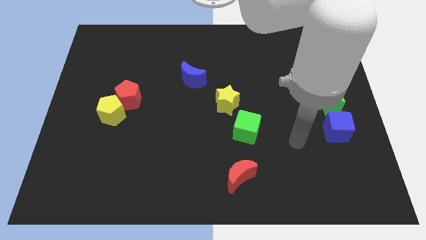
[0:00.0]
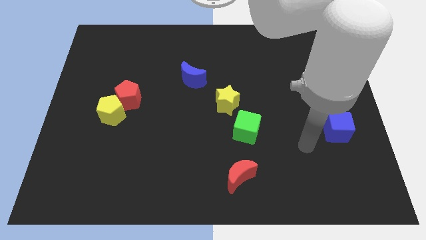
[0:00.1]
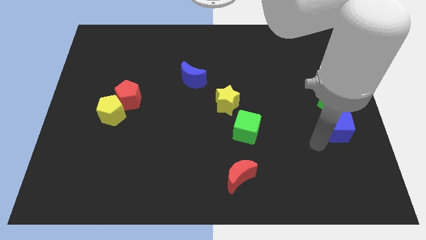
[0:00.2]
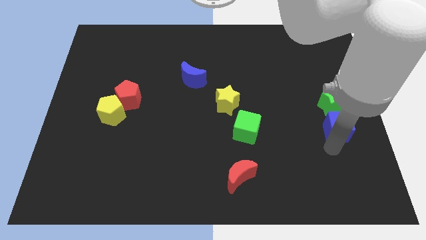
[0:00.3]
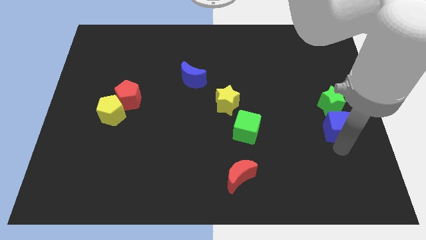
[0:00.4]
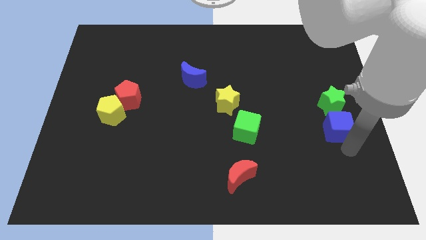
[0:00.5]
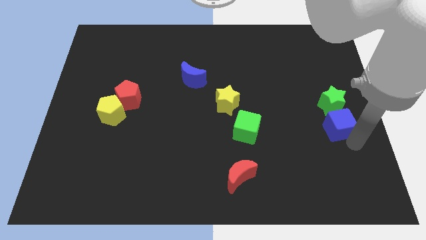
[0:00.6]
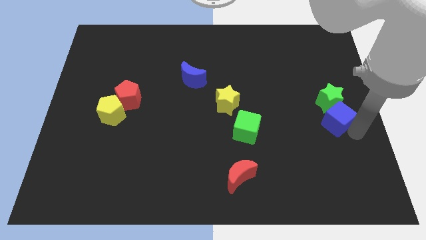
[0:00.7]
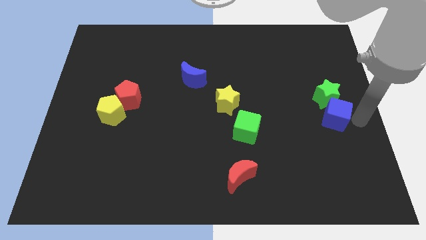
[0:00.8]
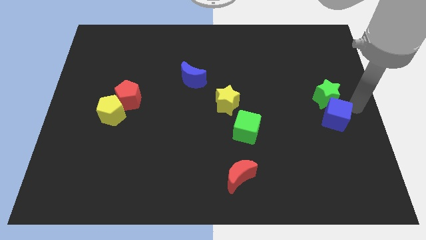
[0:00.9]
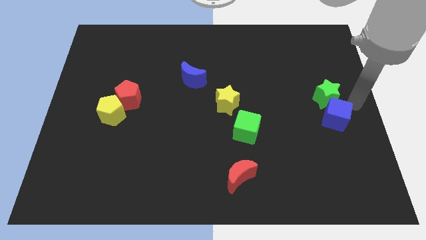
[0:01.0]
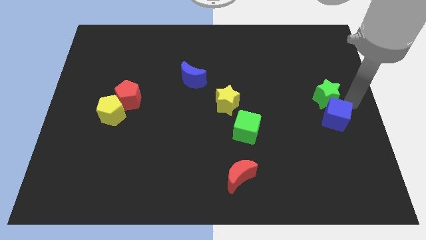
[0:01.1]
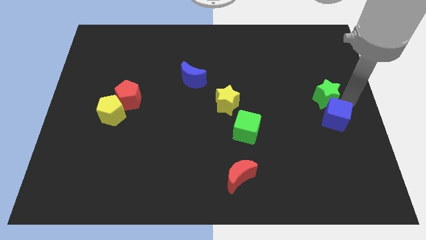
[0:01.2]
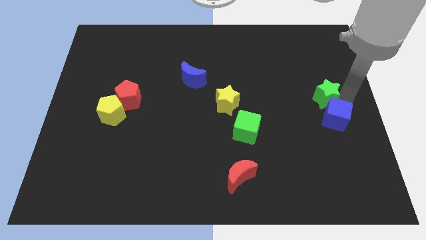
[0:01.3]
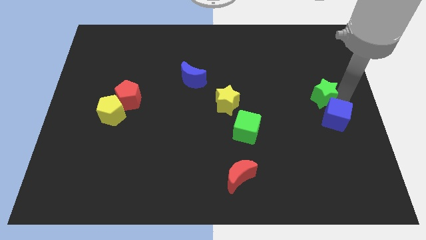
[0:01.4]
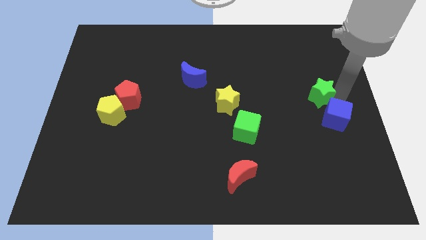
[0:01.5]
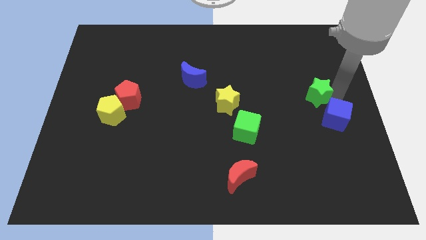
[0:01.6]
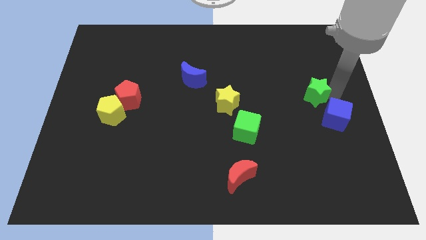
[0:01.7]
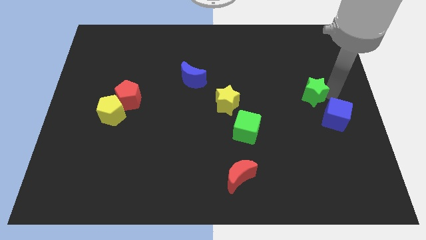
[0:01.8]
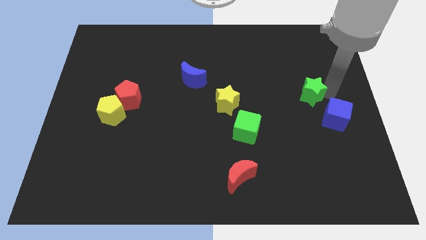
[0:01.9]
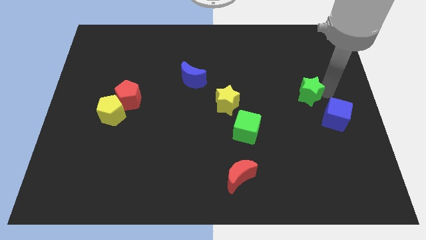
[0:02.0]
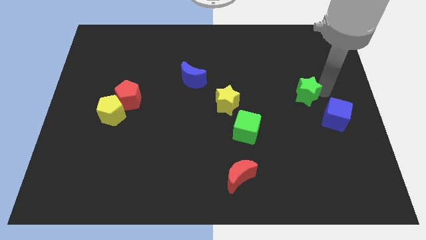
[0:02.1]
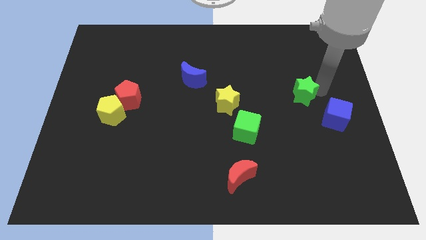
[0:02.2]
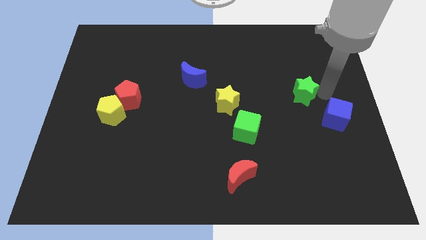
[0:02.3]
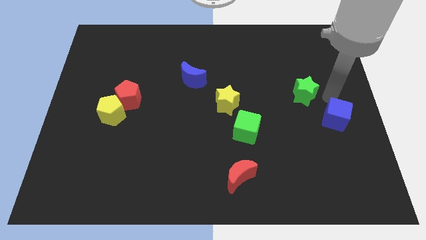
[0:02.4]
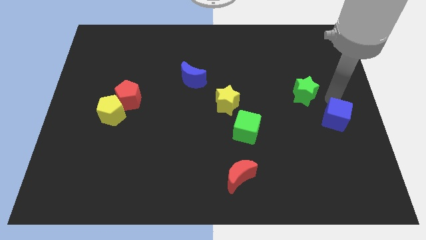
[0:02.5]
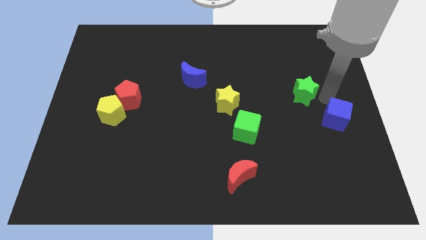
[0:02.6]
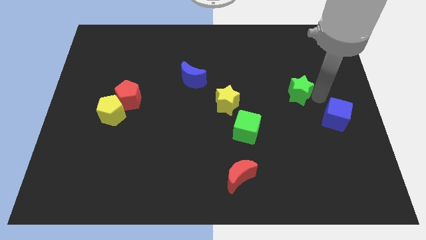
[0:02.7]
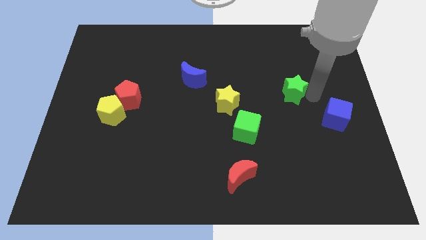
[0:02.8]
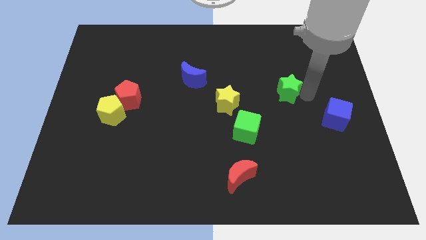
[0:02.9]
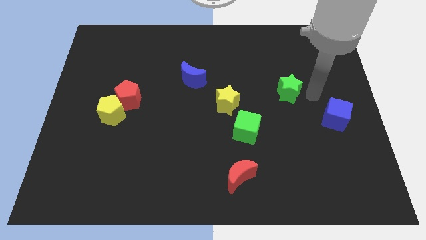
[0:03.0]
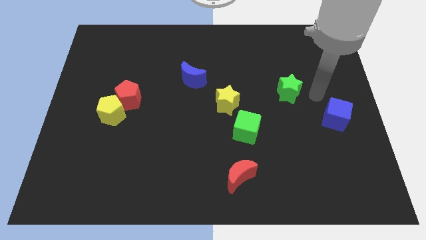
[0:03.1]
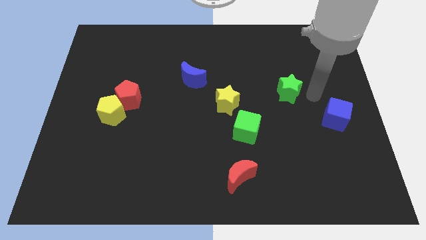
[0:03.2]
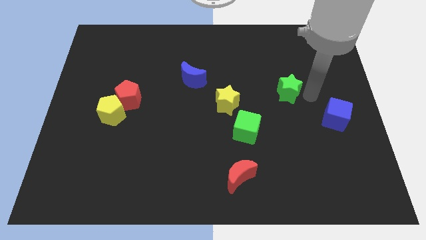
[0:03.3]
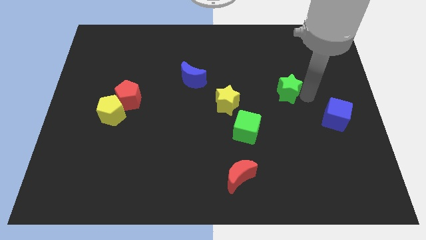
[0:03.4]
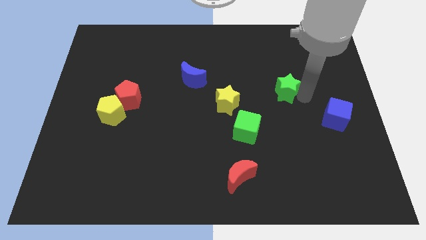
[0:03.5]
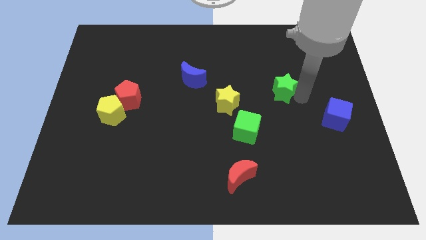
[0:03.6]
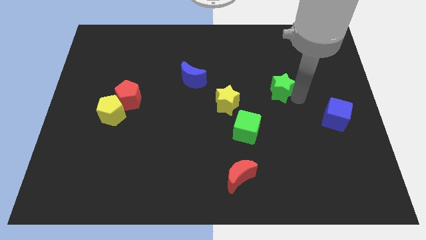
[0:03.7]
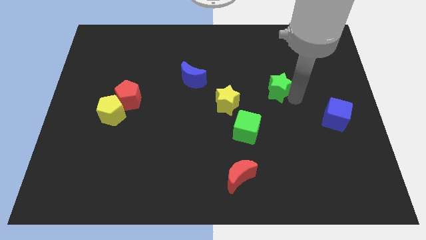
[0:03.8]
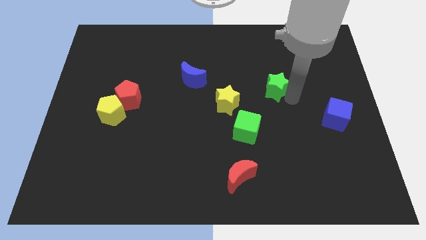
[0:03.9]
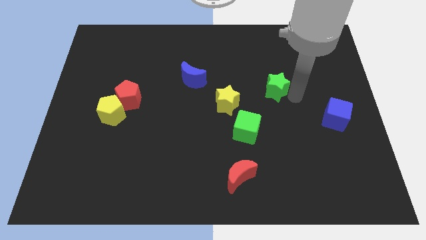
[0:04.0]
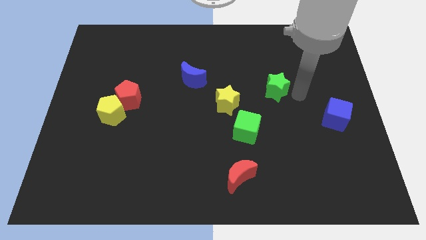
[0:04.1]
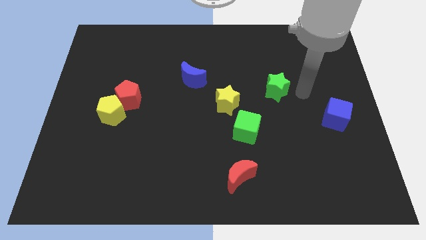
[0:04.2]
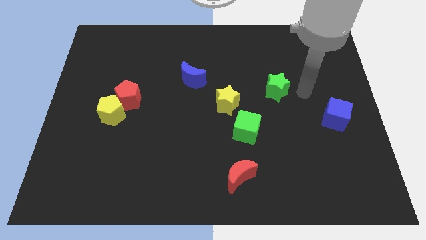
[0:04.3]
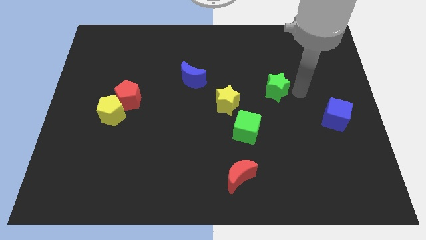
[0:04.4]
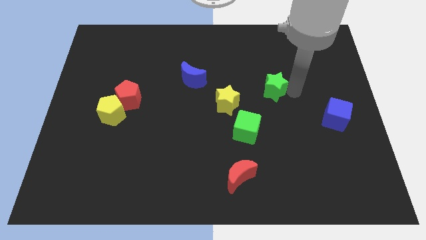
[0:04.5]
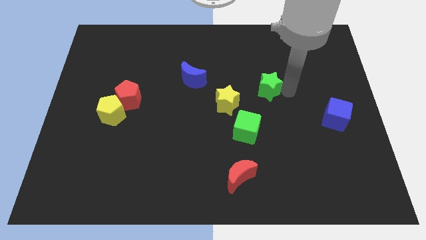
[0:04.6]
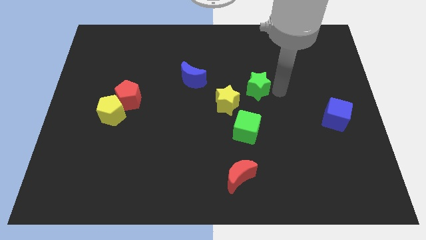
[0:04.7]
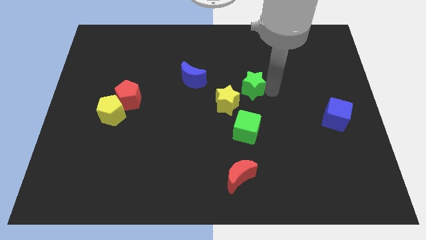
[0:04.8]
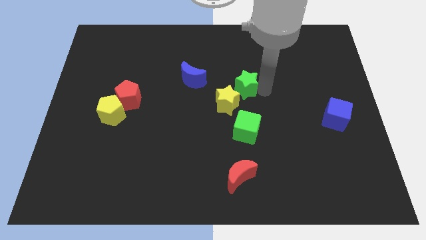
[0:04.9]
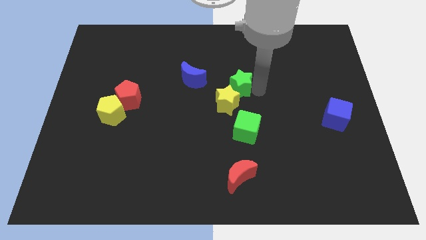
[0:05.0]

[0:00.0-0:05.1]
move the green star left

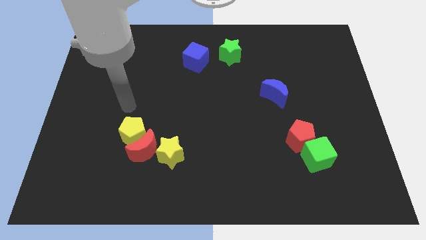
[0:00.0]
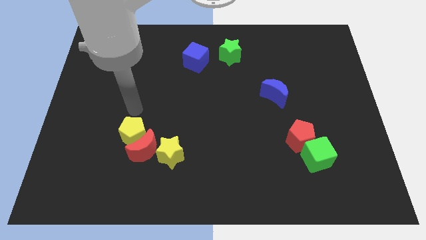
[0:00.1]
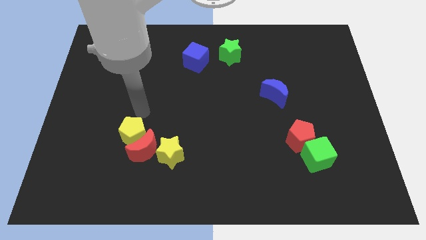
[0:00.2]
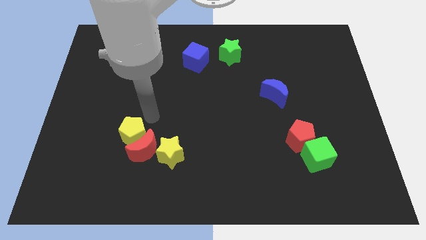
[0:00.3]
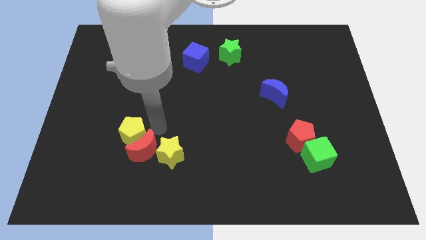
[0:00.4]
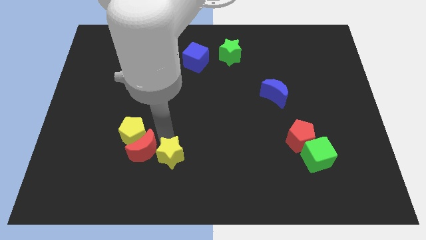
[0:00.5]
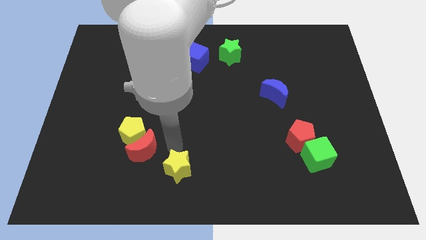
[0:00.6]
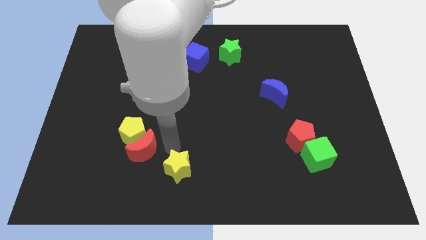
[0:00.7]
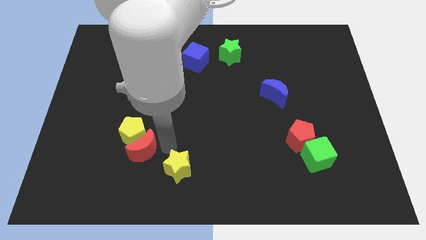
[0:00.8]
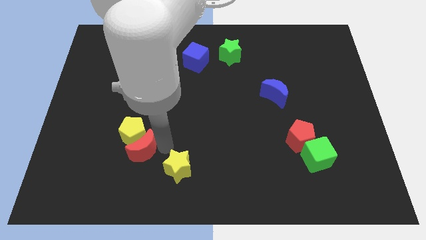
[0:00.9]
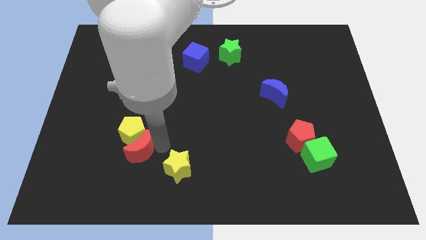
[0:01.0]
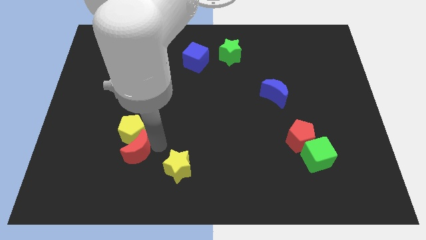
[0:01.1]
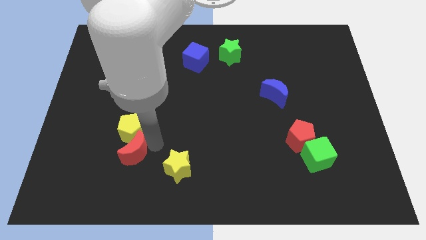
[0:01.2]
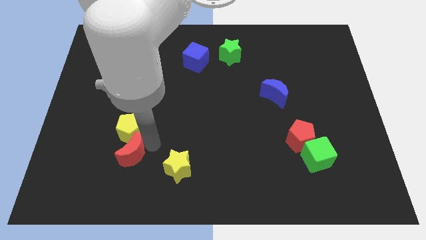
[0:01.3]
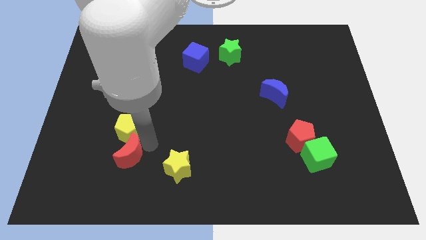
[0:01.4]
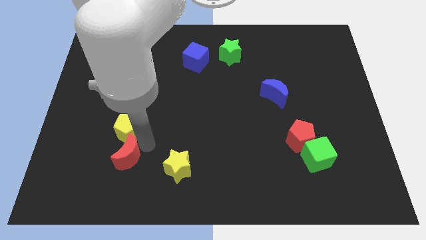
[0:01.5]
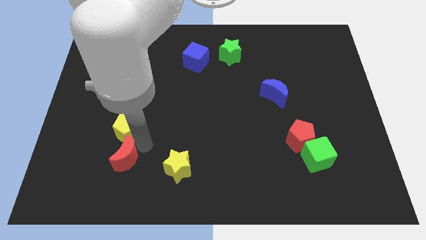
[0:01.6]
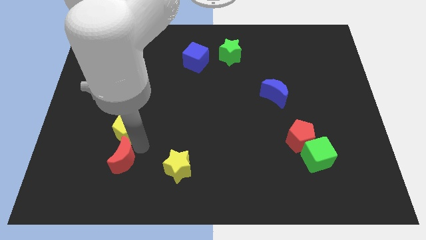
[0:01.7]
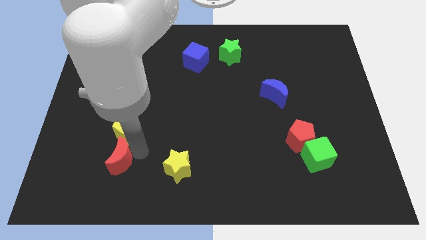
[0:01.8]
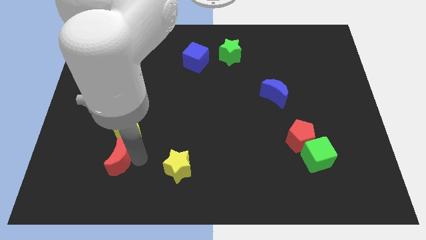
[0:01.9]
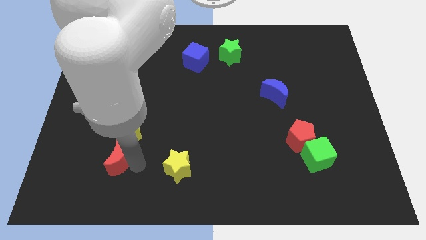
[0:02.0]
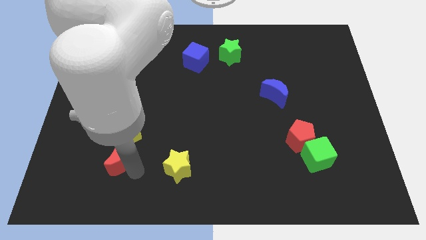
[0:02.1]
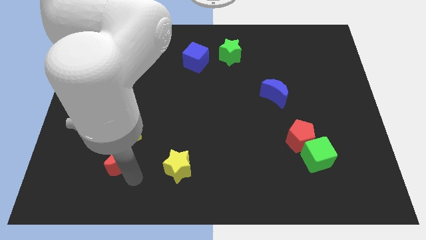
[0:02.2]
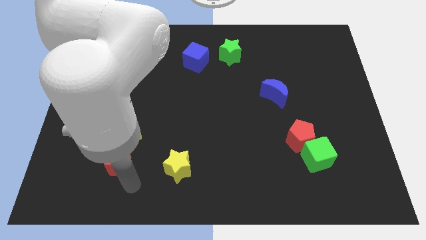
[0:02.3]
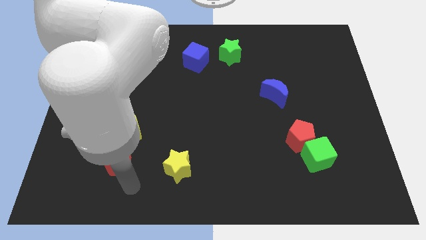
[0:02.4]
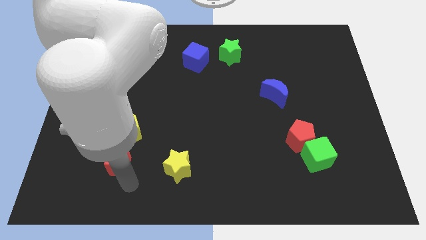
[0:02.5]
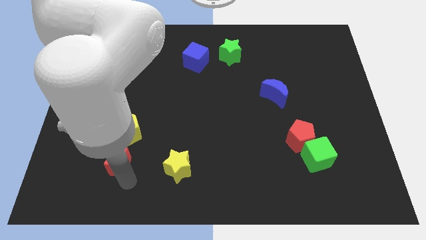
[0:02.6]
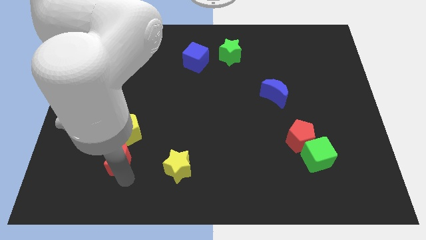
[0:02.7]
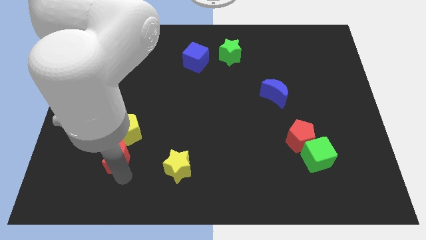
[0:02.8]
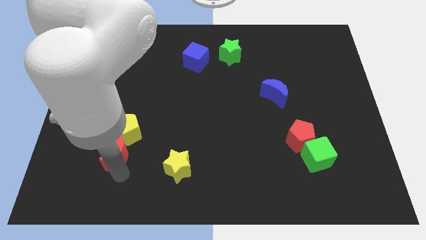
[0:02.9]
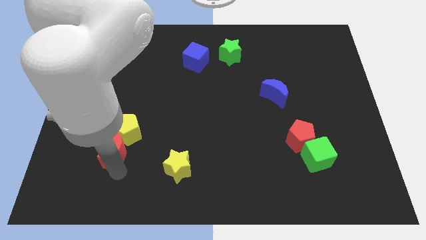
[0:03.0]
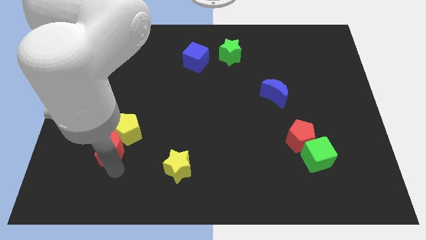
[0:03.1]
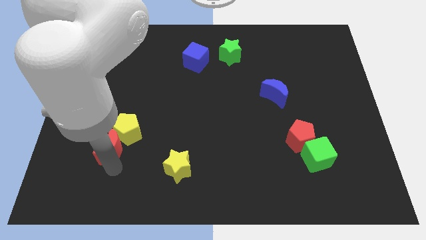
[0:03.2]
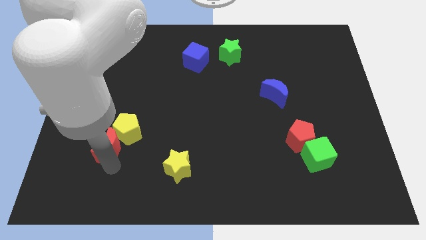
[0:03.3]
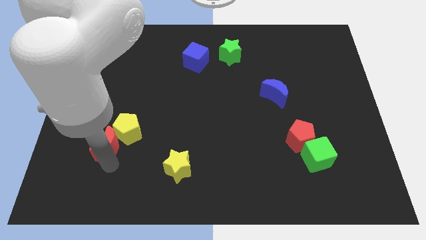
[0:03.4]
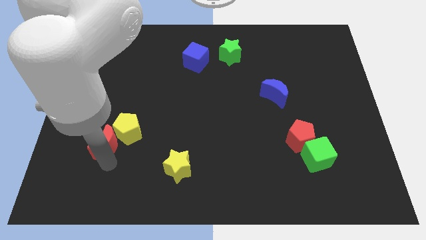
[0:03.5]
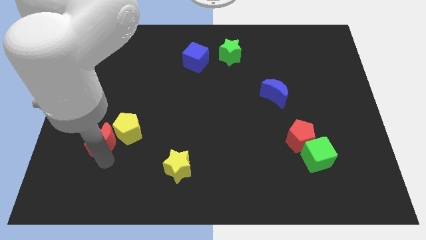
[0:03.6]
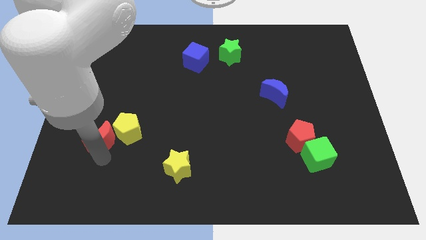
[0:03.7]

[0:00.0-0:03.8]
push the red moon diagonally upwards and left a bit
